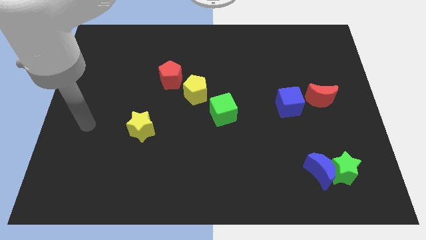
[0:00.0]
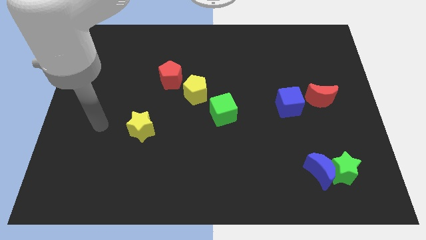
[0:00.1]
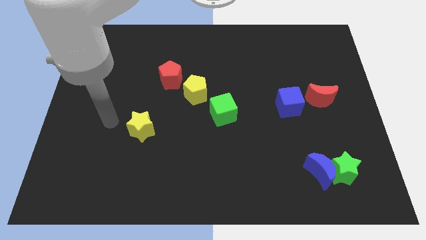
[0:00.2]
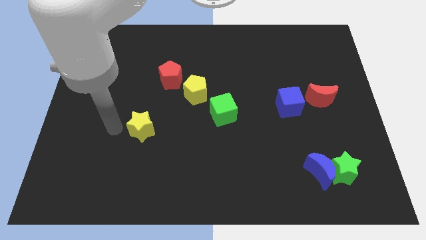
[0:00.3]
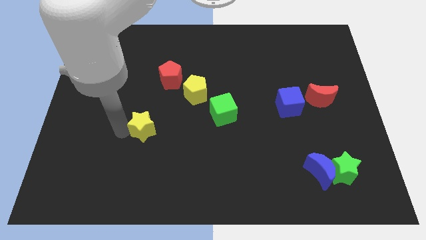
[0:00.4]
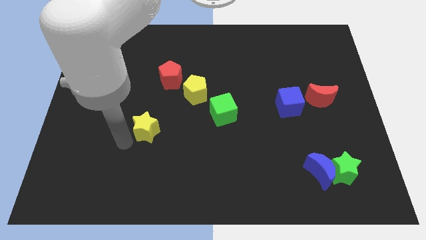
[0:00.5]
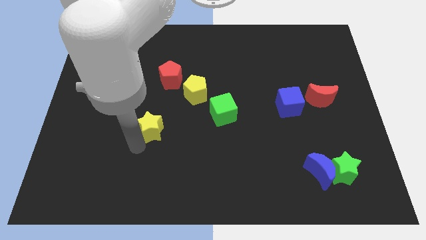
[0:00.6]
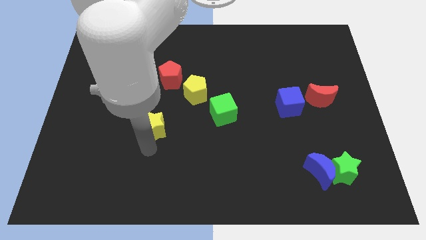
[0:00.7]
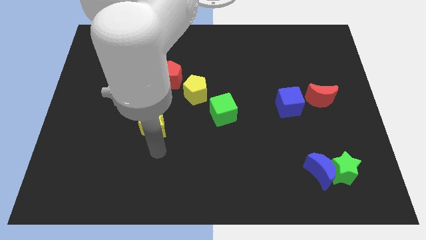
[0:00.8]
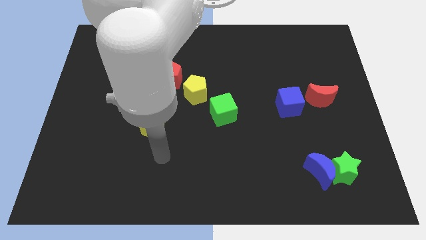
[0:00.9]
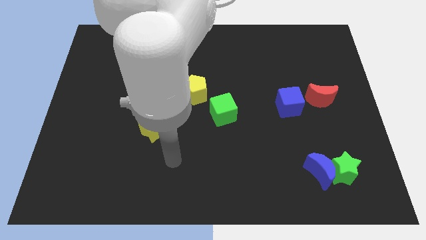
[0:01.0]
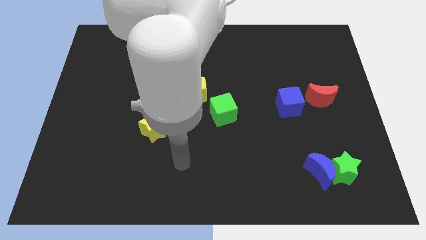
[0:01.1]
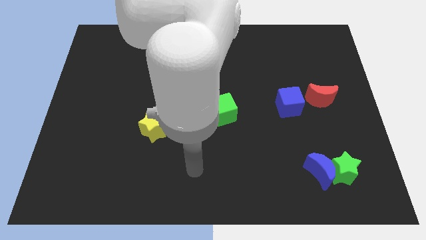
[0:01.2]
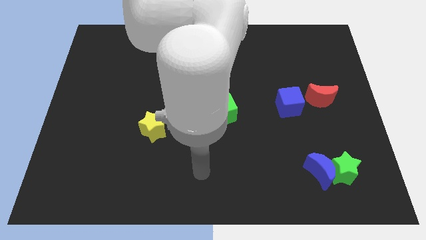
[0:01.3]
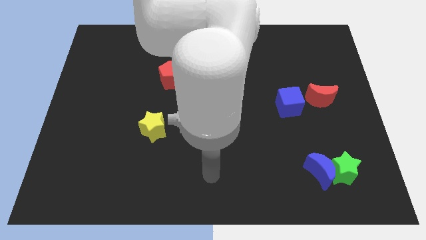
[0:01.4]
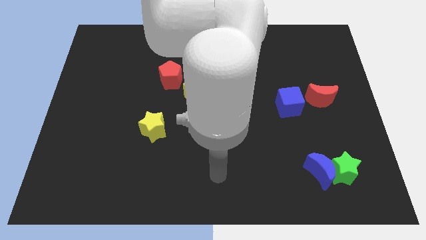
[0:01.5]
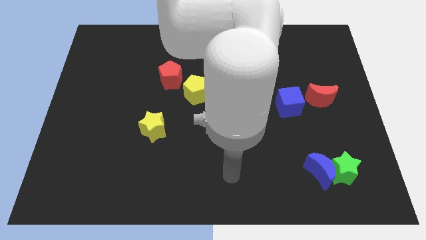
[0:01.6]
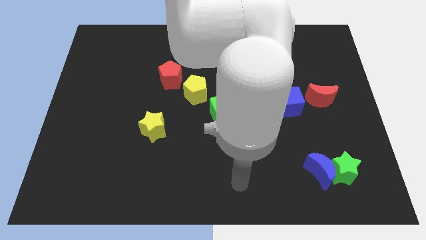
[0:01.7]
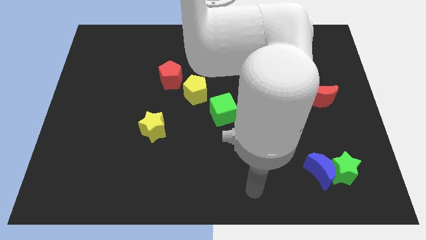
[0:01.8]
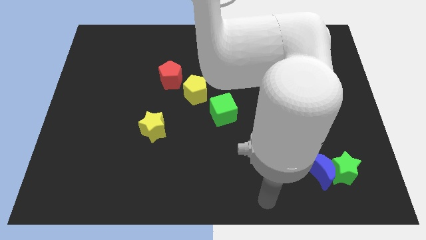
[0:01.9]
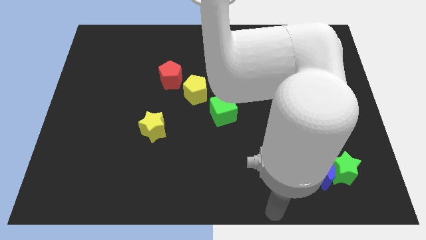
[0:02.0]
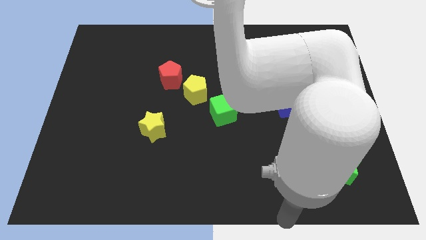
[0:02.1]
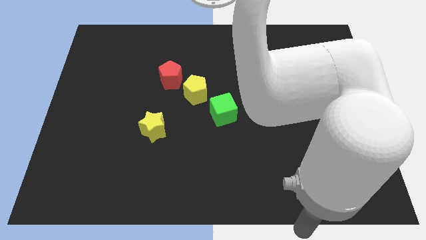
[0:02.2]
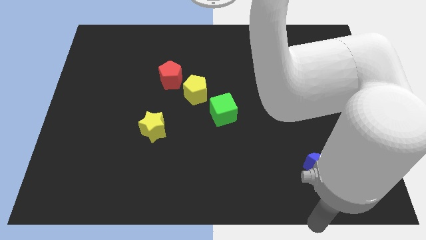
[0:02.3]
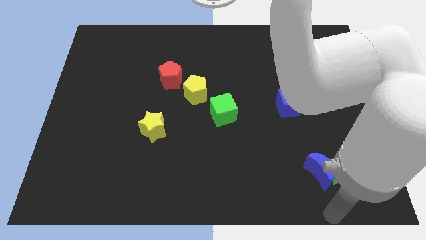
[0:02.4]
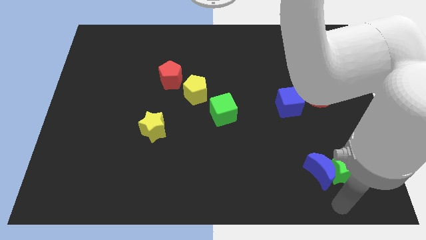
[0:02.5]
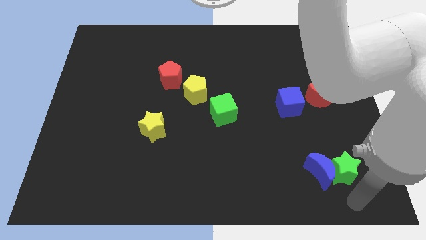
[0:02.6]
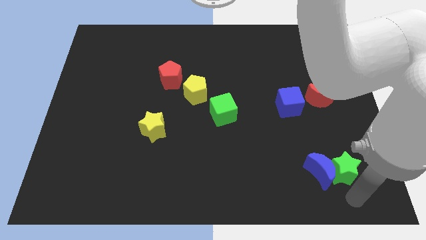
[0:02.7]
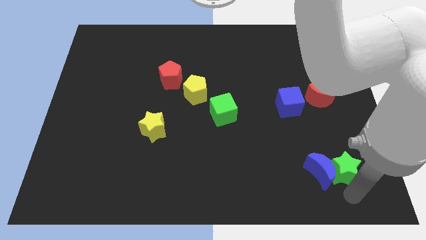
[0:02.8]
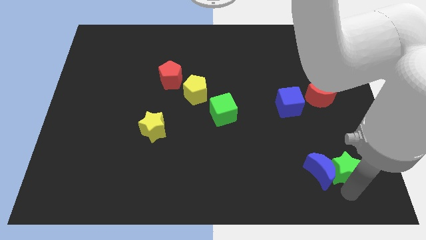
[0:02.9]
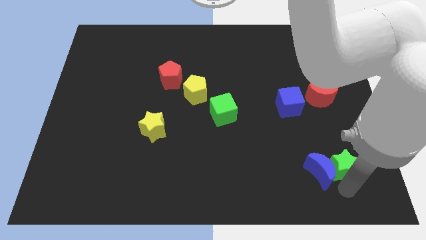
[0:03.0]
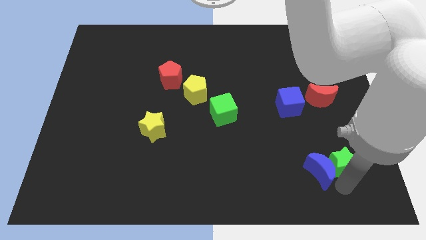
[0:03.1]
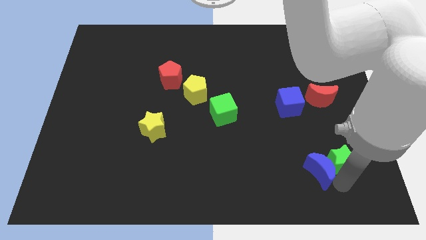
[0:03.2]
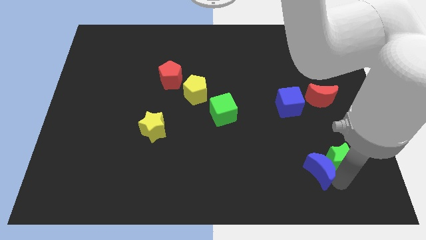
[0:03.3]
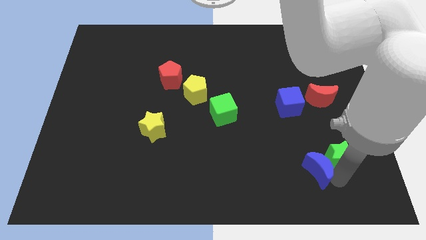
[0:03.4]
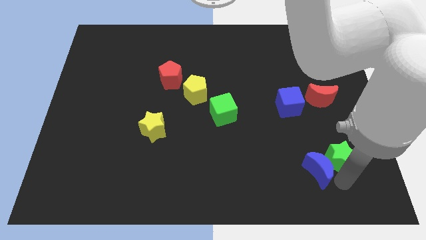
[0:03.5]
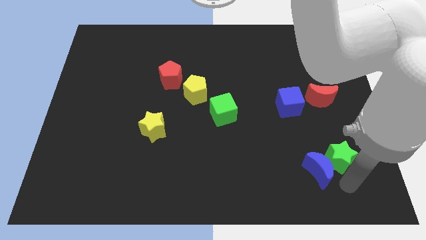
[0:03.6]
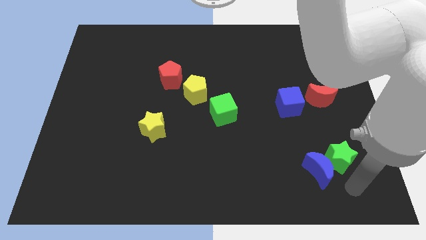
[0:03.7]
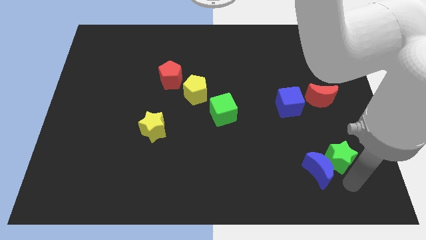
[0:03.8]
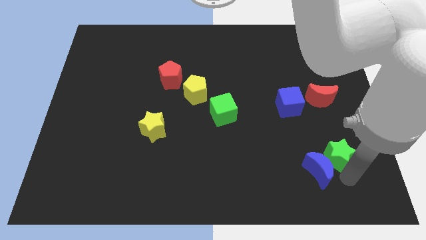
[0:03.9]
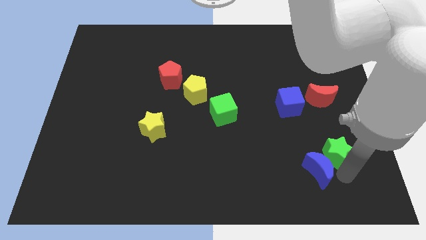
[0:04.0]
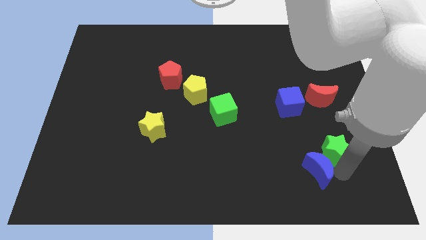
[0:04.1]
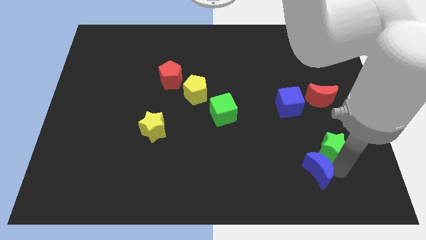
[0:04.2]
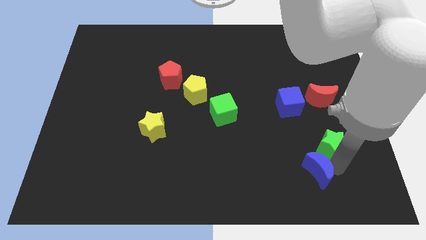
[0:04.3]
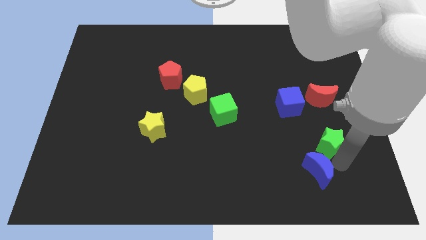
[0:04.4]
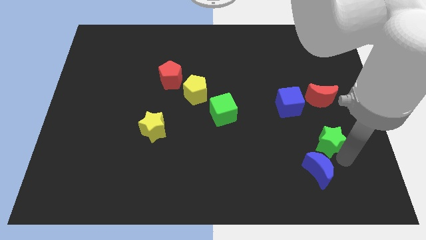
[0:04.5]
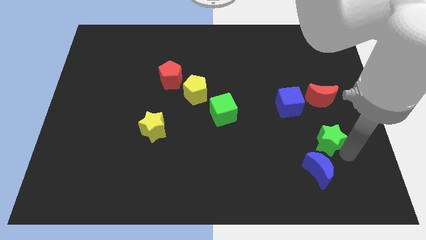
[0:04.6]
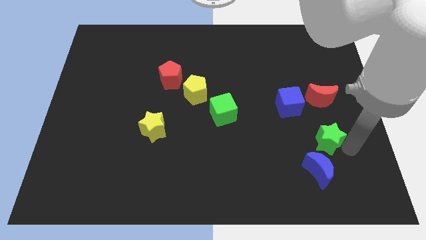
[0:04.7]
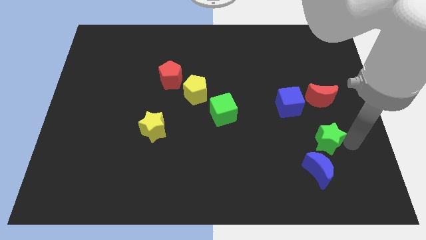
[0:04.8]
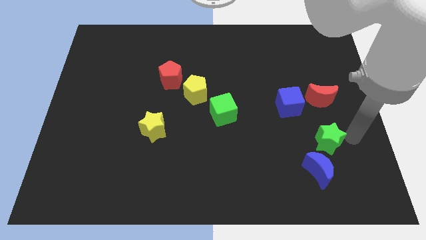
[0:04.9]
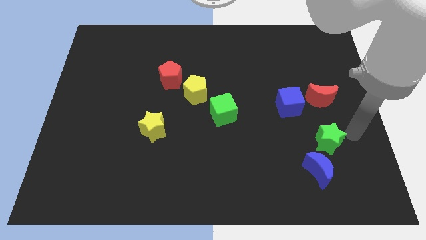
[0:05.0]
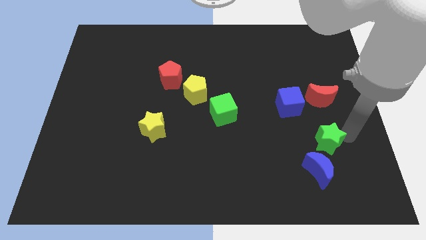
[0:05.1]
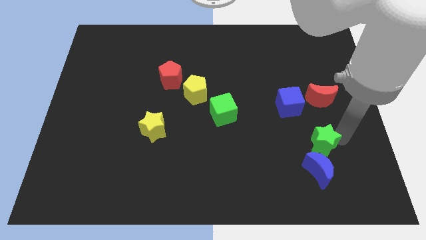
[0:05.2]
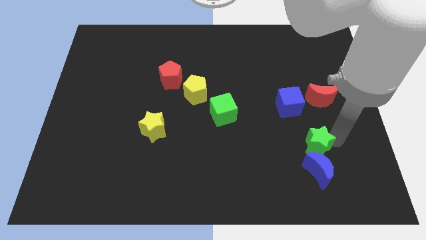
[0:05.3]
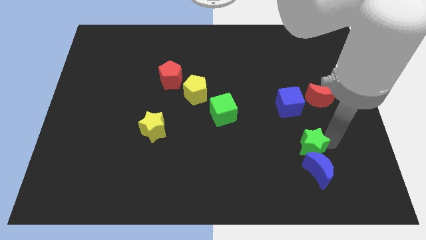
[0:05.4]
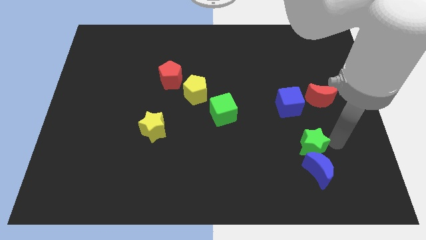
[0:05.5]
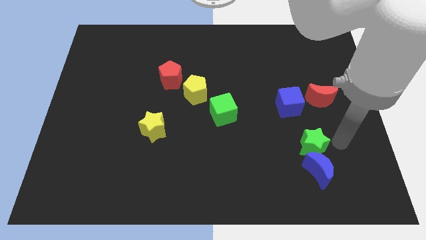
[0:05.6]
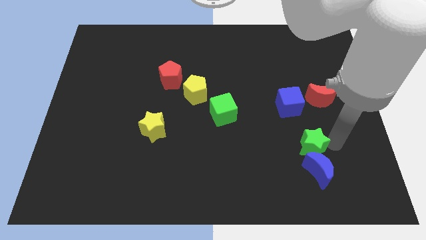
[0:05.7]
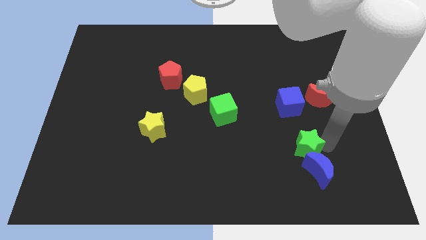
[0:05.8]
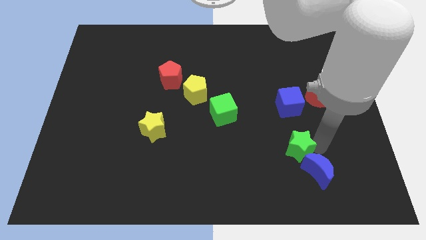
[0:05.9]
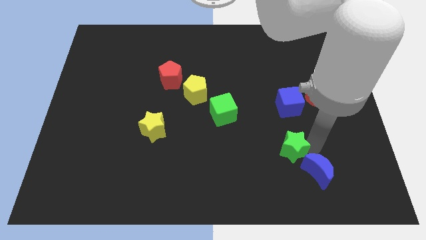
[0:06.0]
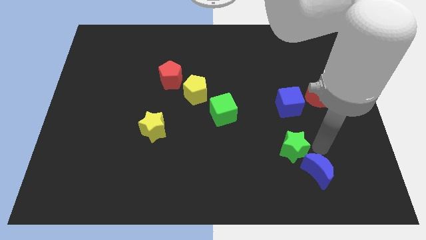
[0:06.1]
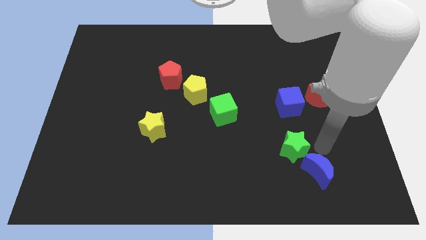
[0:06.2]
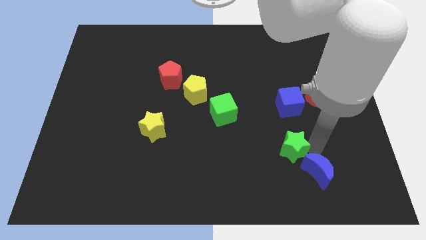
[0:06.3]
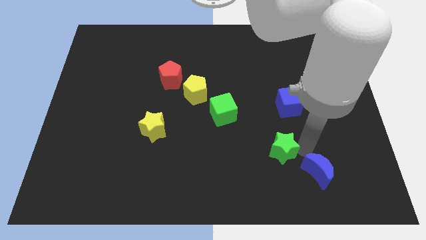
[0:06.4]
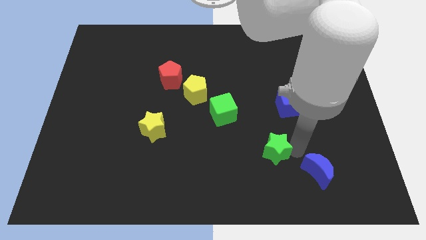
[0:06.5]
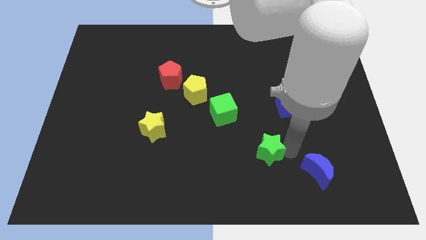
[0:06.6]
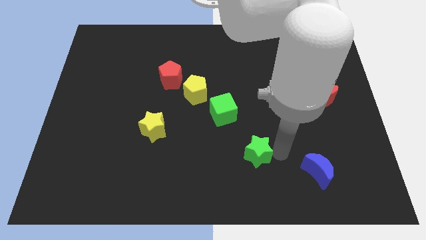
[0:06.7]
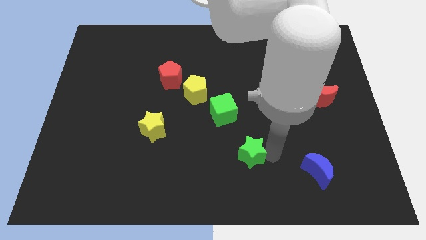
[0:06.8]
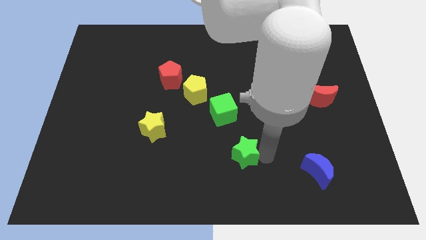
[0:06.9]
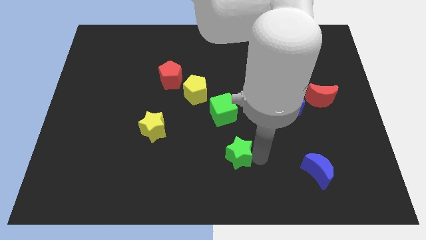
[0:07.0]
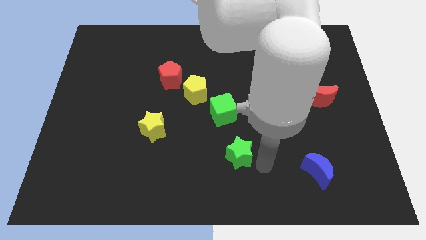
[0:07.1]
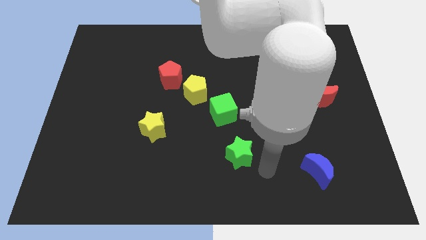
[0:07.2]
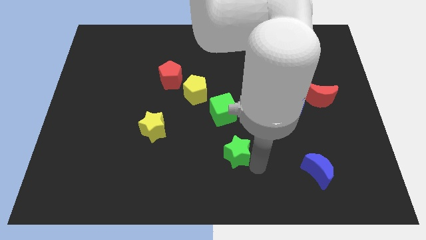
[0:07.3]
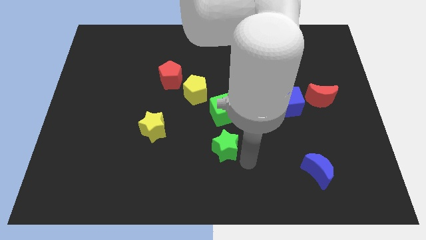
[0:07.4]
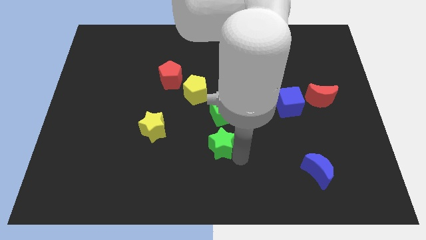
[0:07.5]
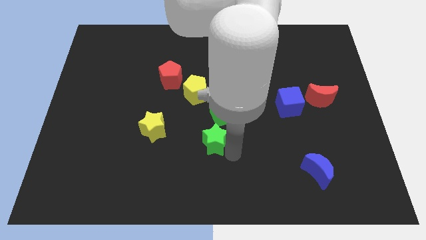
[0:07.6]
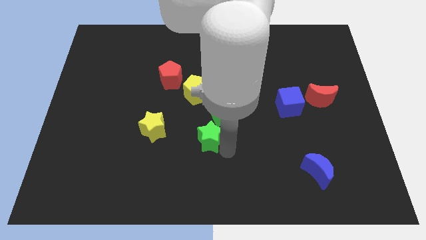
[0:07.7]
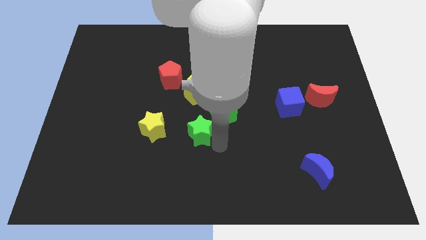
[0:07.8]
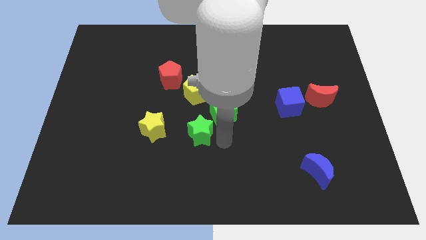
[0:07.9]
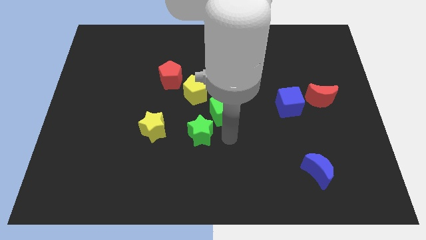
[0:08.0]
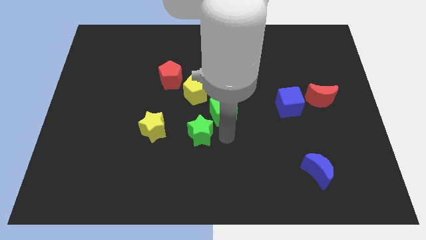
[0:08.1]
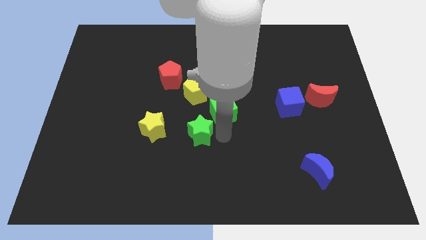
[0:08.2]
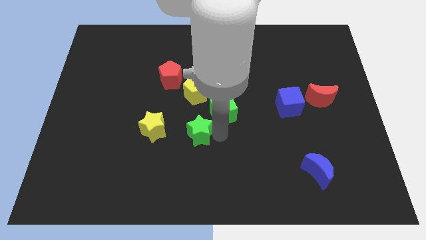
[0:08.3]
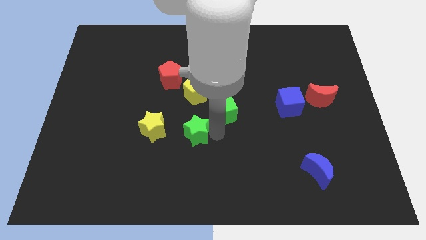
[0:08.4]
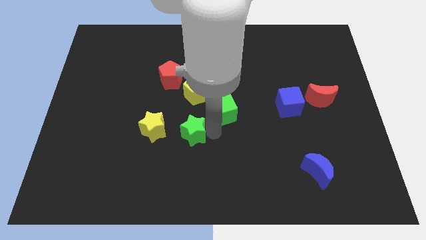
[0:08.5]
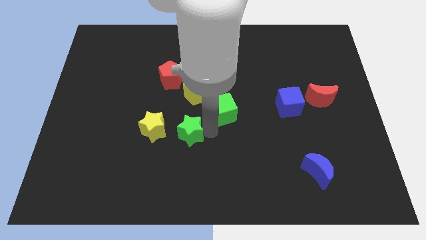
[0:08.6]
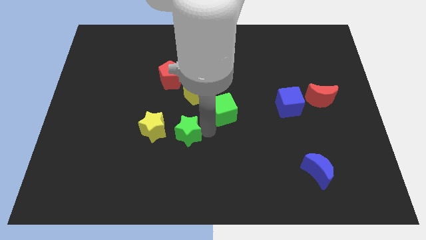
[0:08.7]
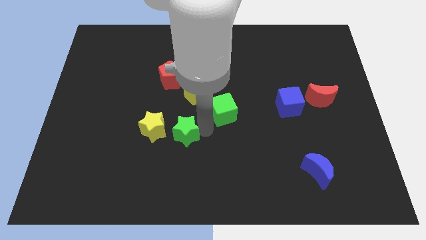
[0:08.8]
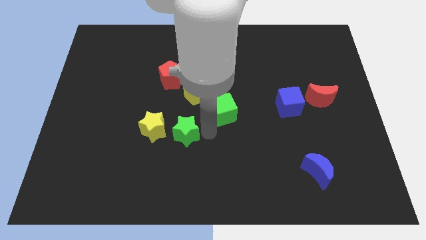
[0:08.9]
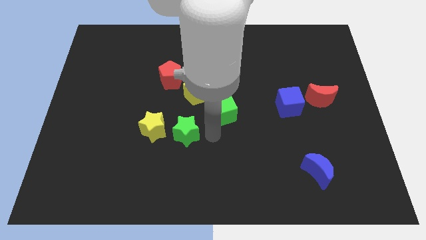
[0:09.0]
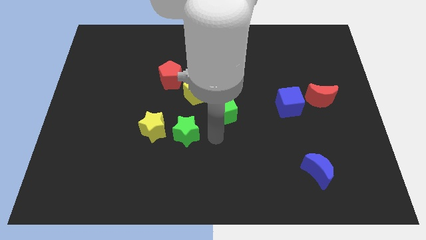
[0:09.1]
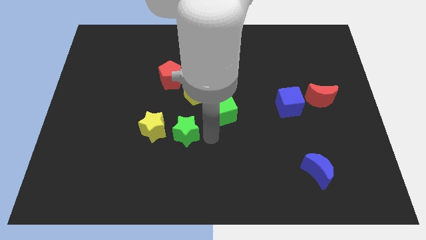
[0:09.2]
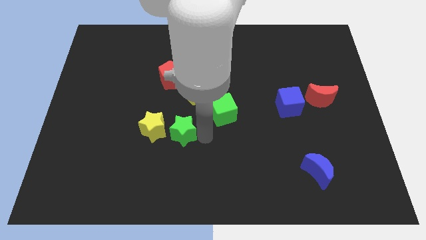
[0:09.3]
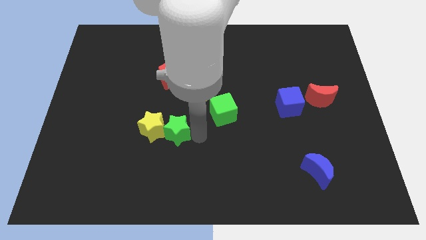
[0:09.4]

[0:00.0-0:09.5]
move the green star towards the yellow star
